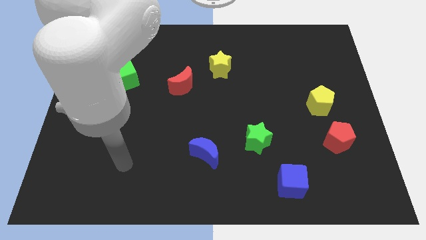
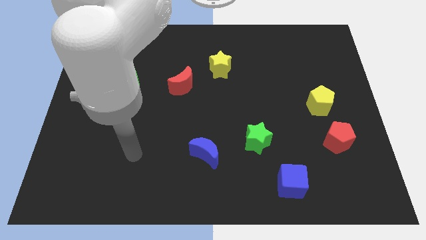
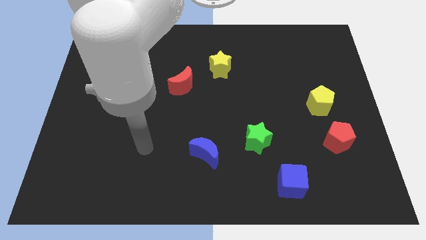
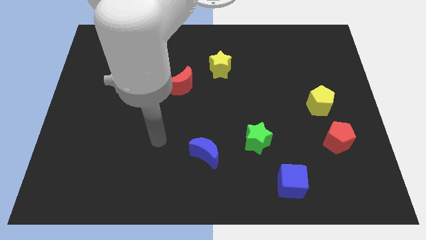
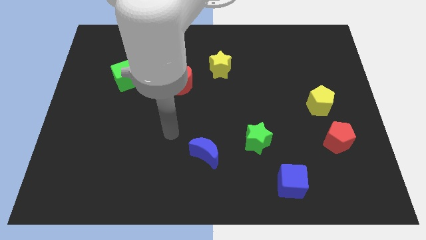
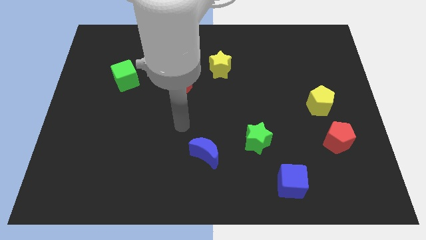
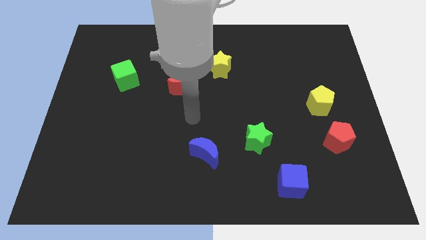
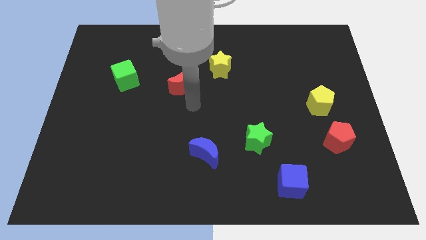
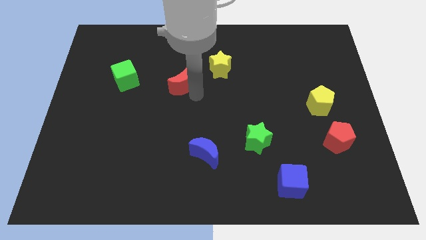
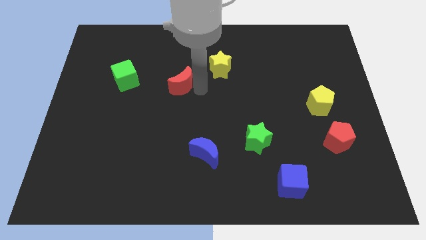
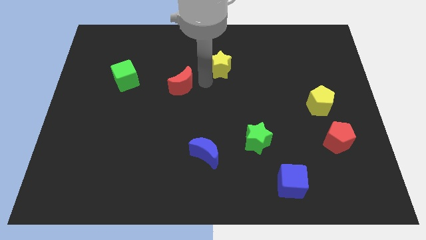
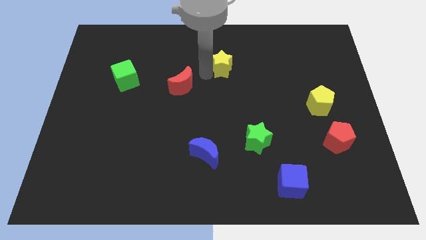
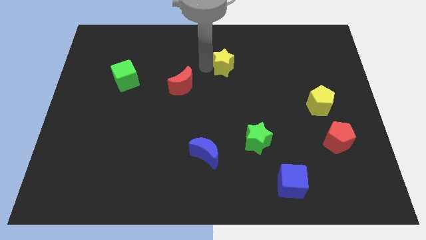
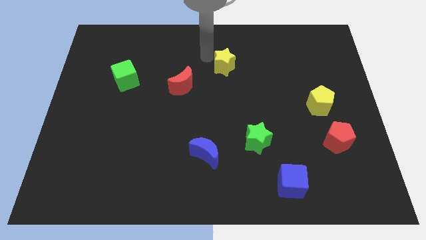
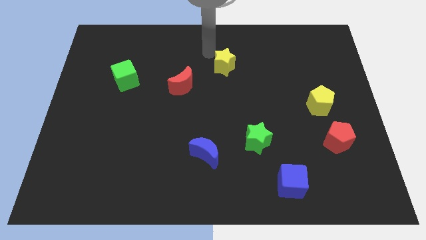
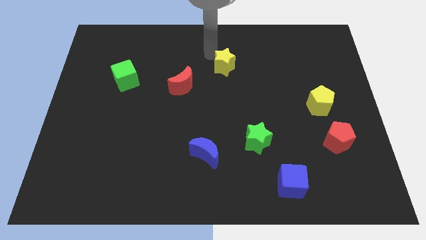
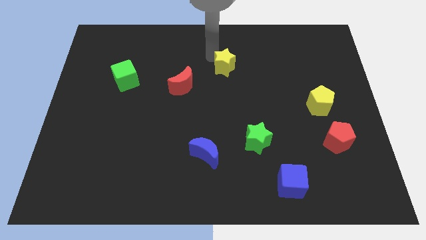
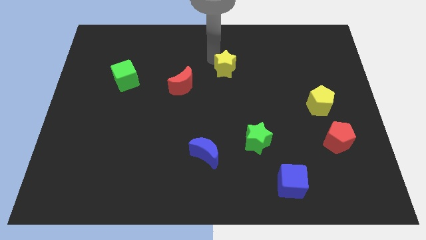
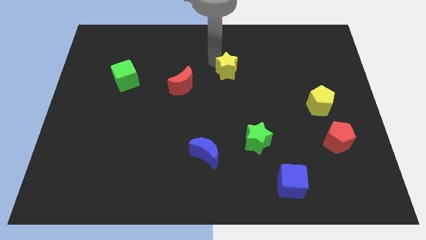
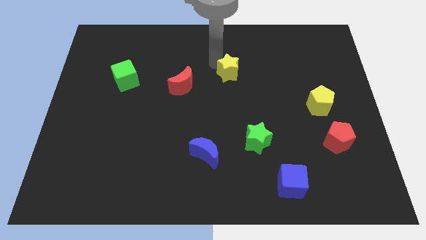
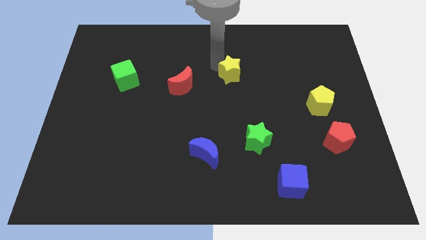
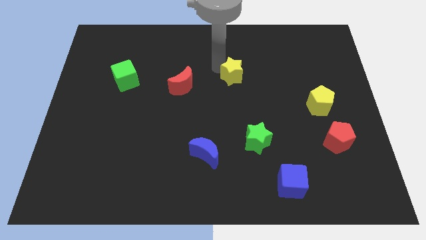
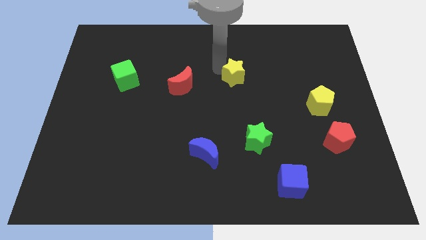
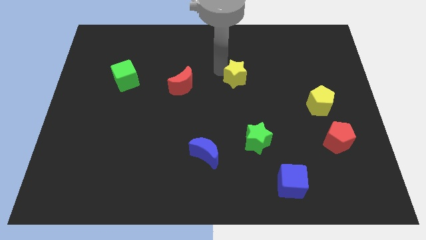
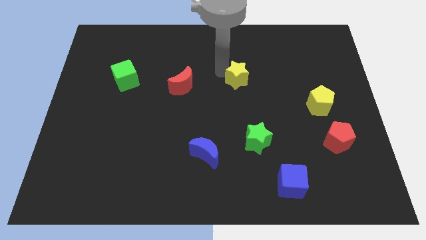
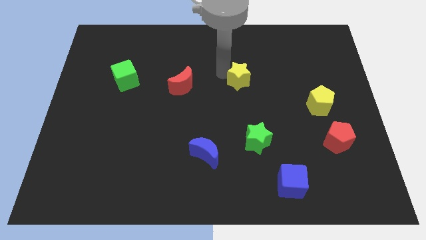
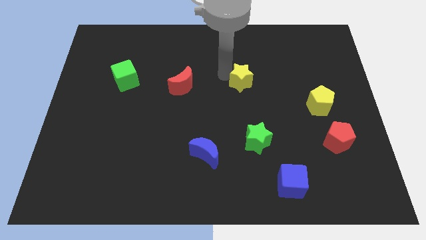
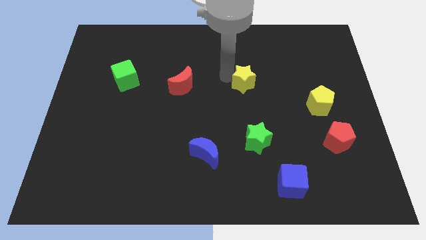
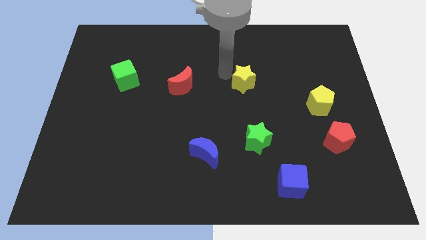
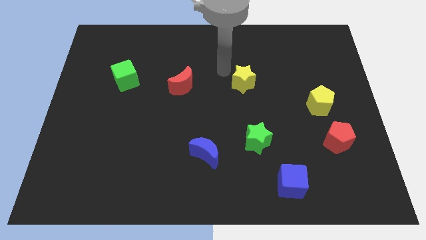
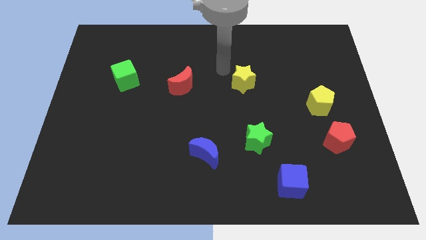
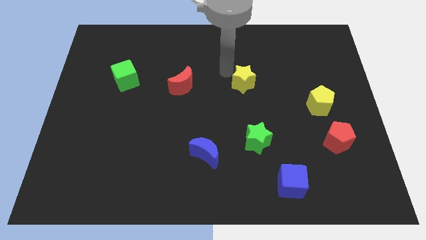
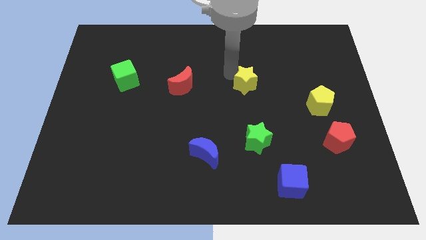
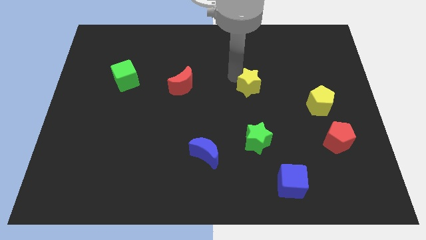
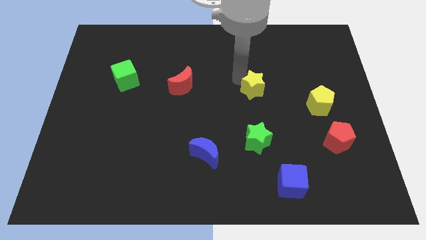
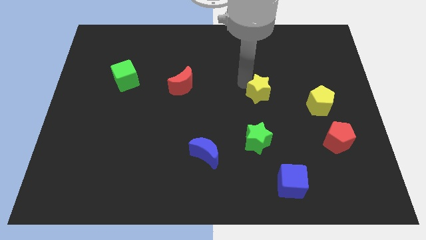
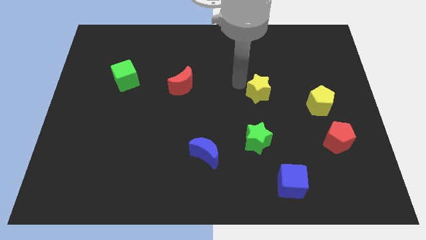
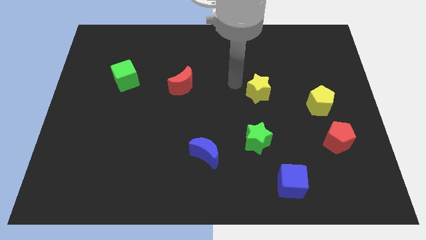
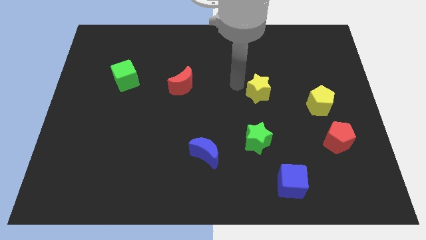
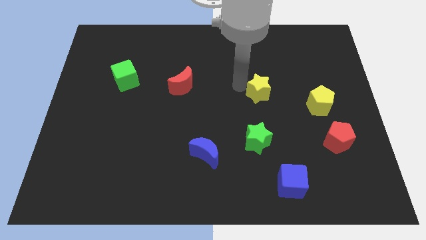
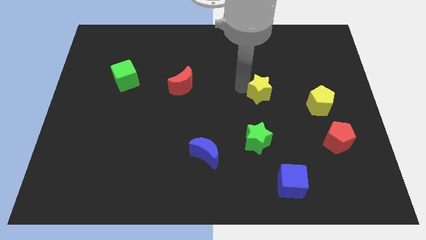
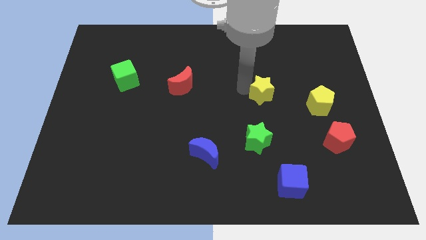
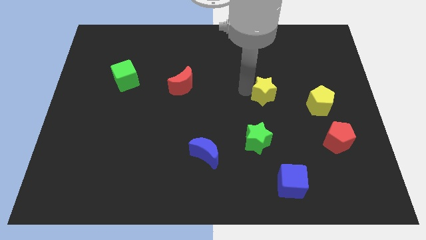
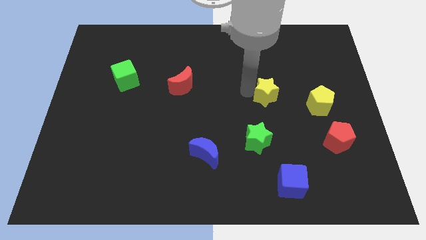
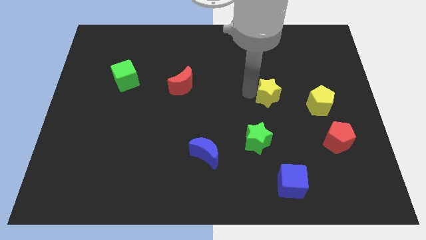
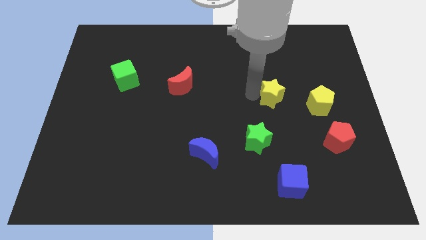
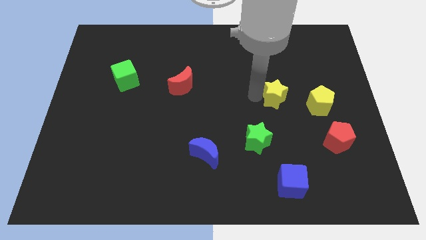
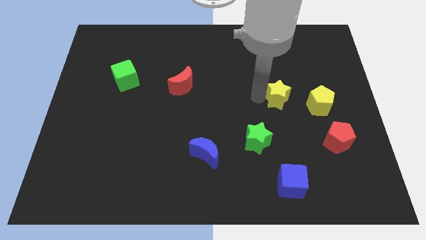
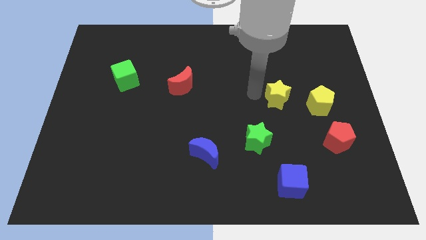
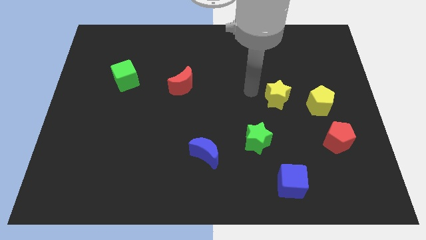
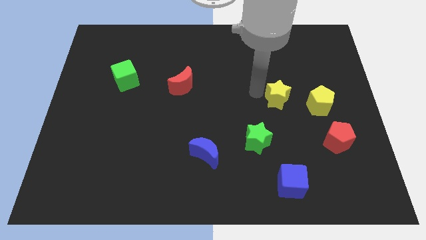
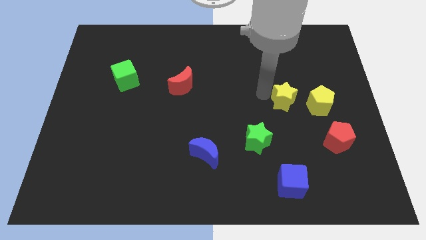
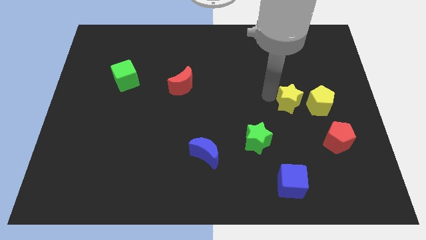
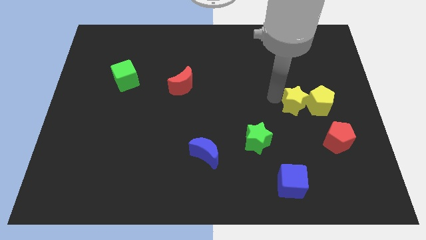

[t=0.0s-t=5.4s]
push the yellow star towards the yellow pentagon

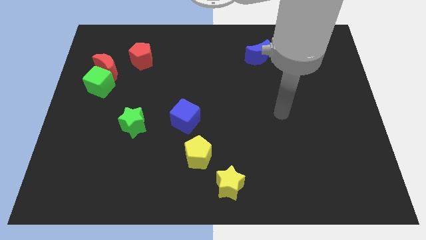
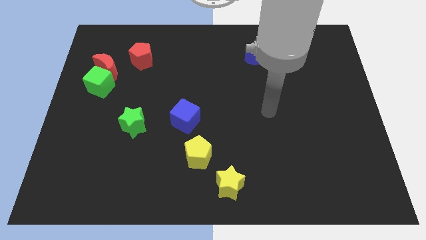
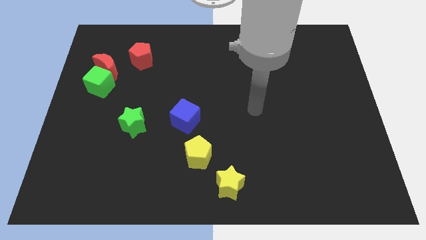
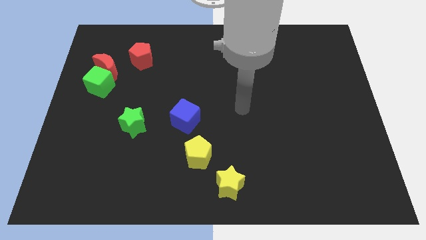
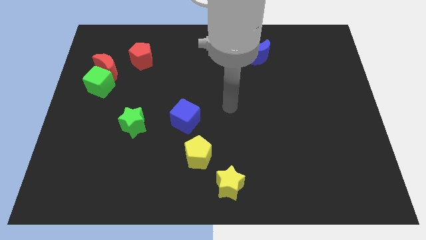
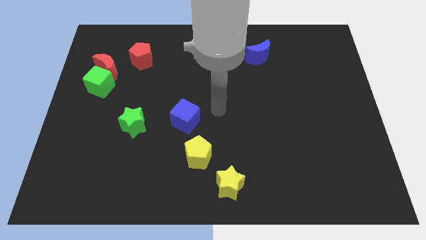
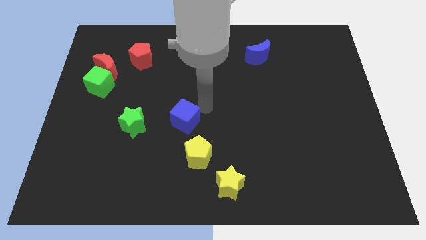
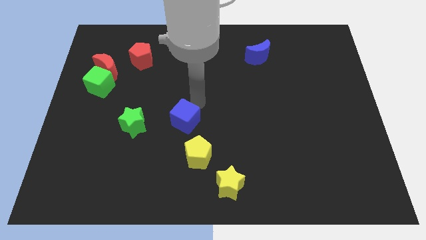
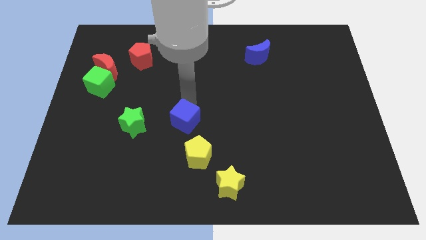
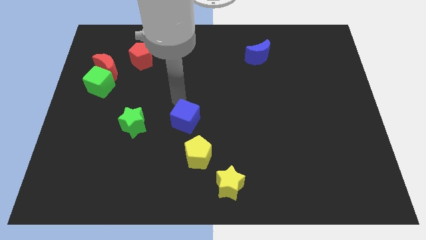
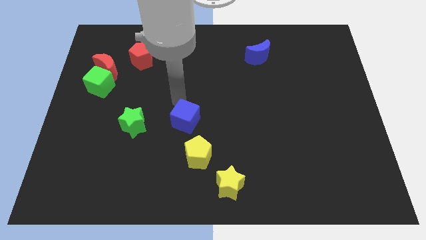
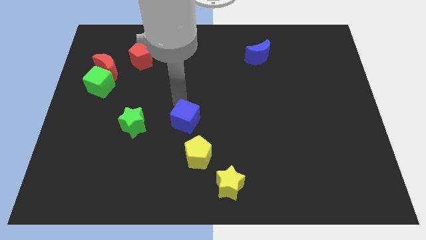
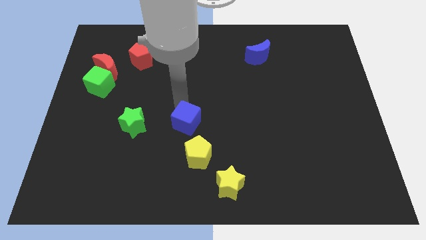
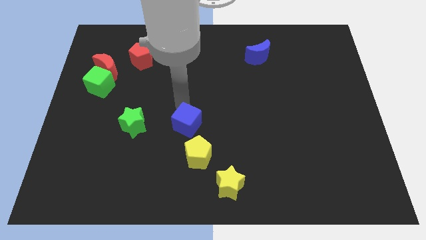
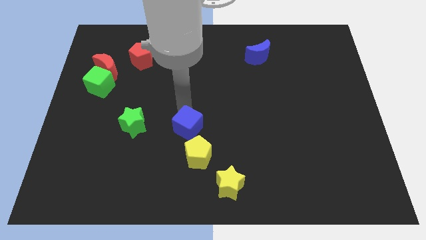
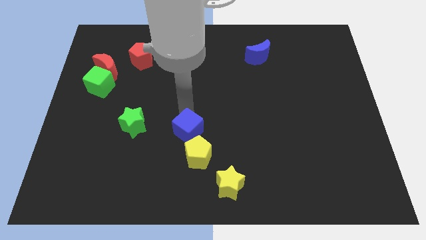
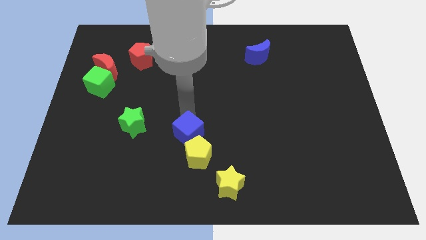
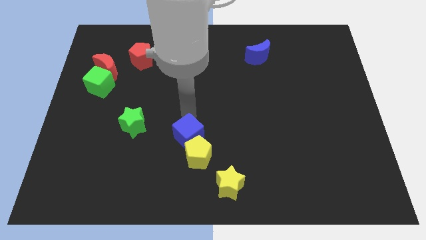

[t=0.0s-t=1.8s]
put the blue cube to the yellow pentagon

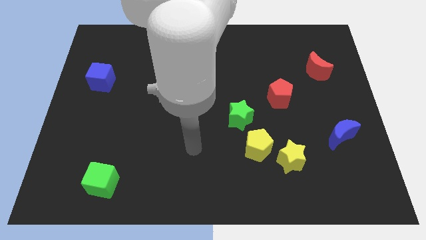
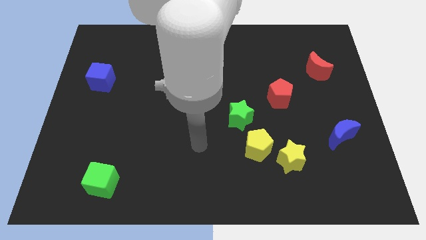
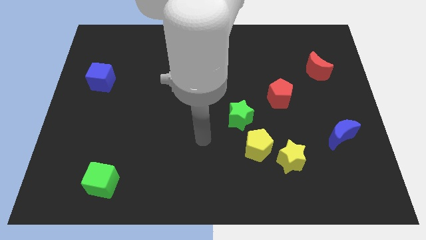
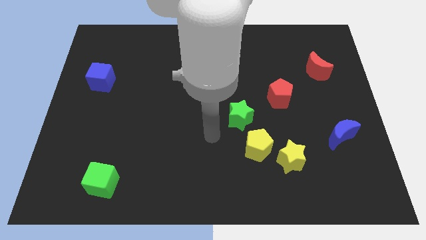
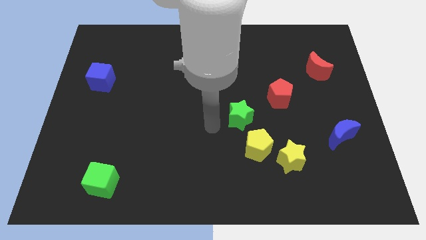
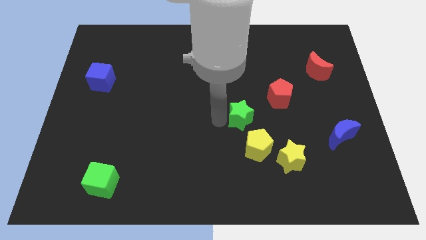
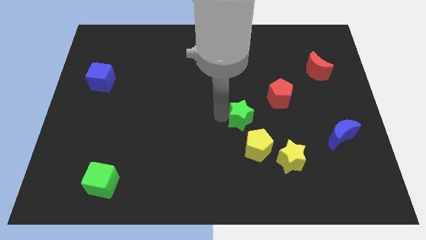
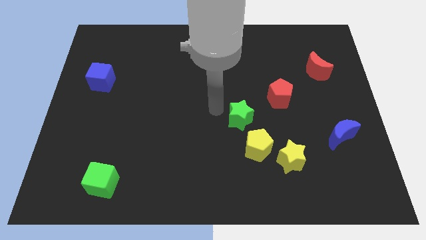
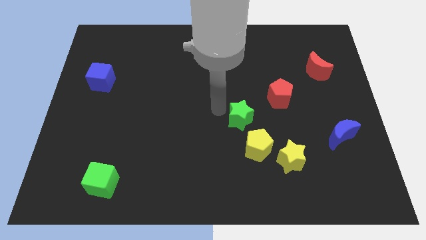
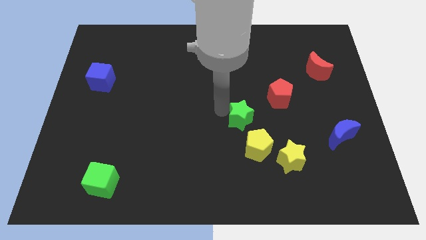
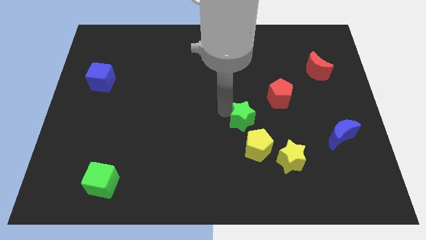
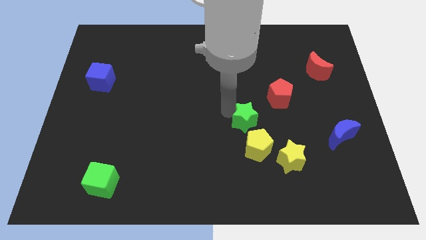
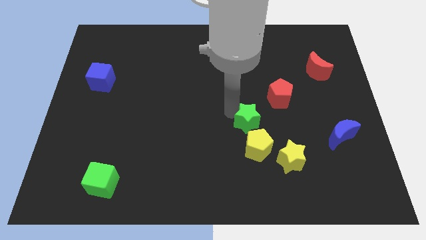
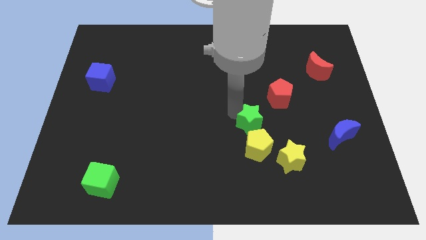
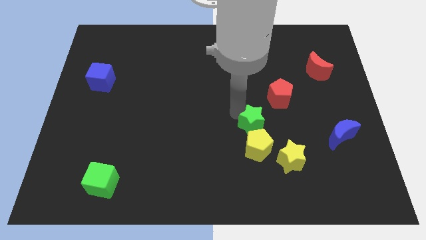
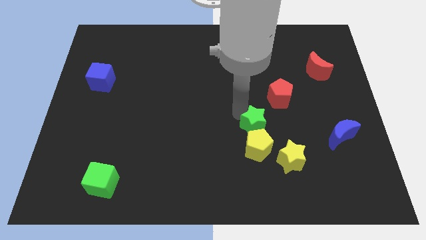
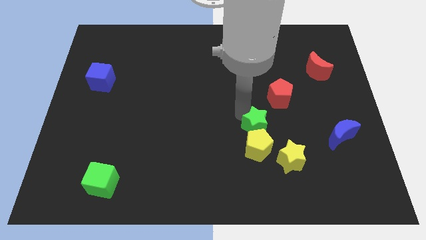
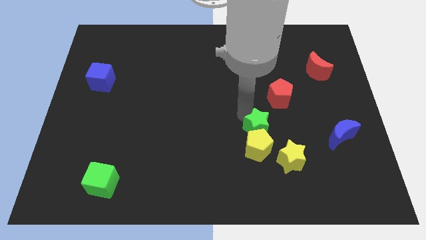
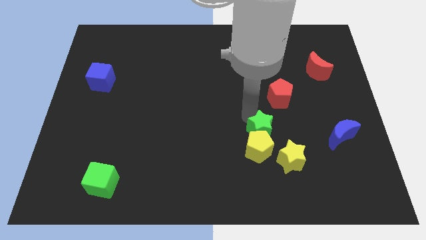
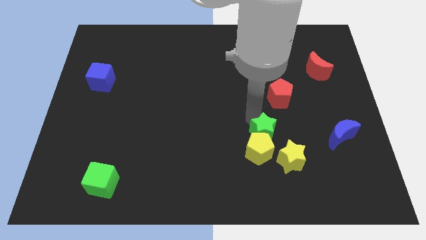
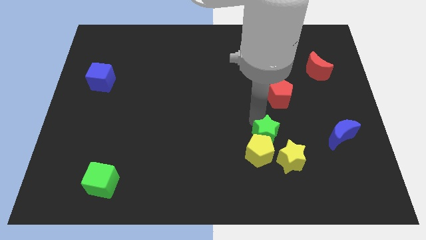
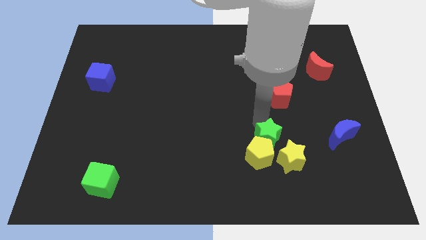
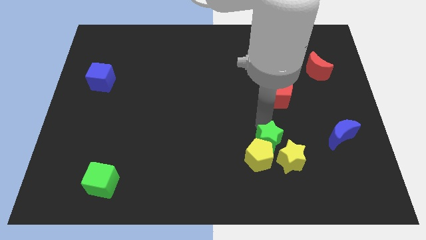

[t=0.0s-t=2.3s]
slide the green star next to the yellow star
